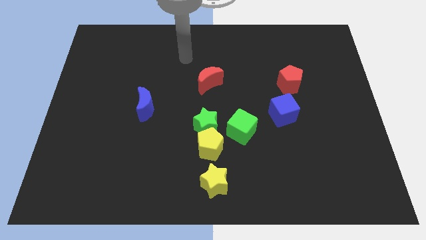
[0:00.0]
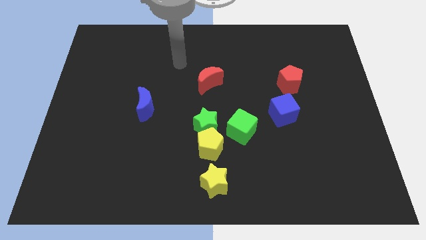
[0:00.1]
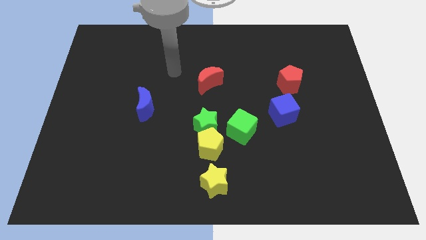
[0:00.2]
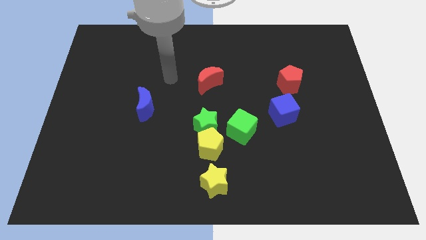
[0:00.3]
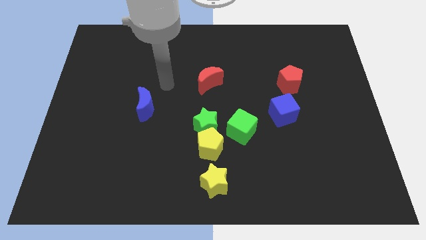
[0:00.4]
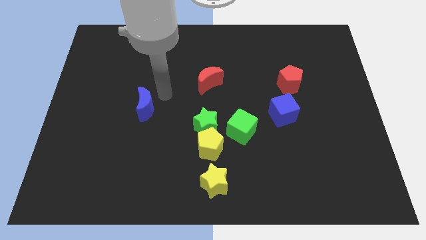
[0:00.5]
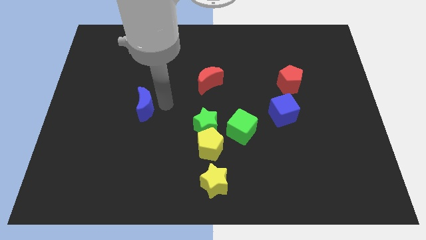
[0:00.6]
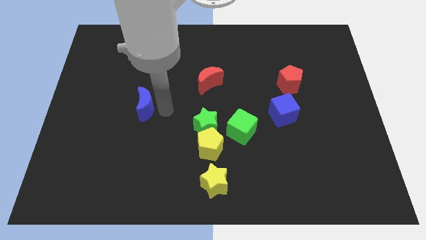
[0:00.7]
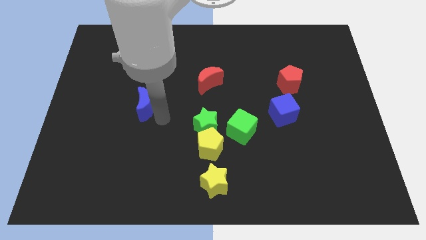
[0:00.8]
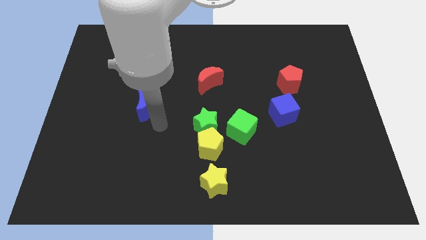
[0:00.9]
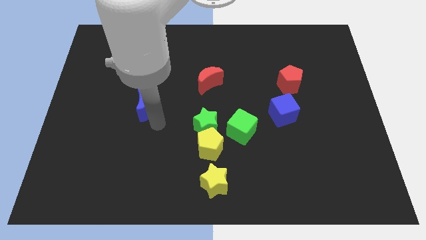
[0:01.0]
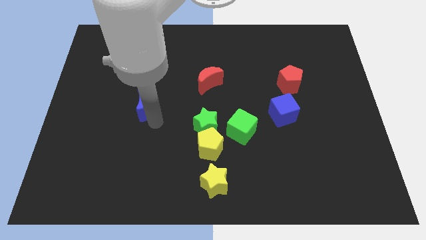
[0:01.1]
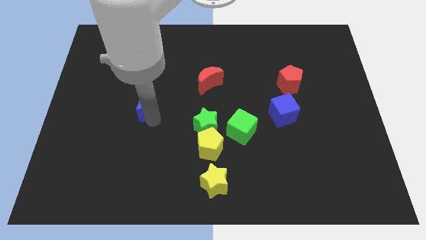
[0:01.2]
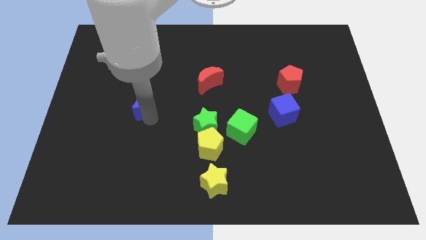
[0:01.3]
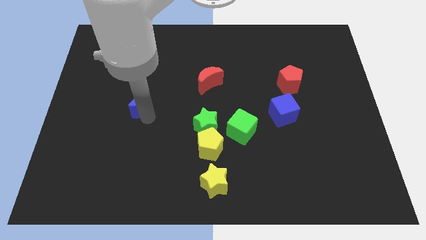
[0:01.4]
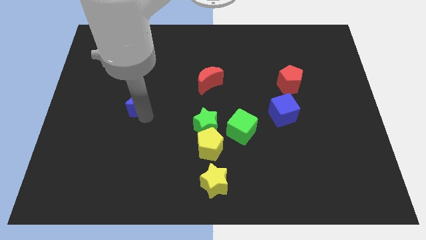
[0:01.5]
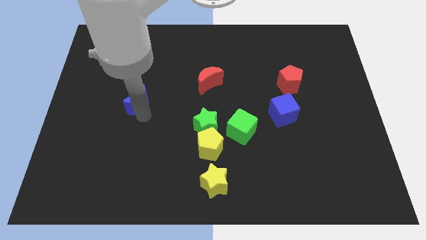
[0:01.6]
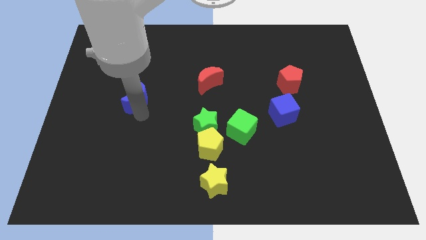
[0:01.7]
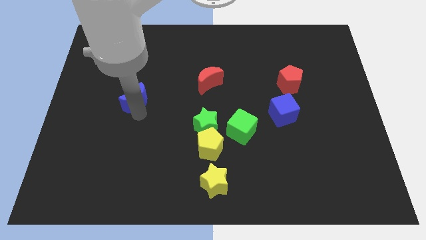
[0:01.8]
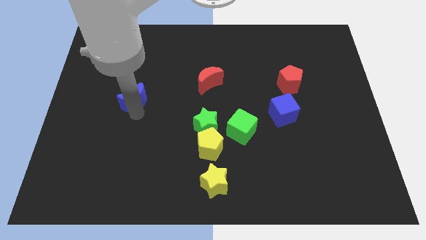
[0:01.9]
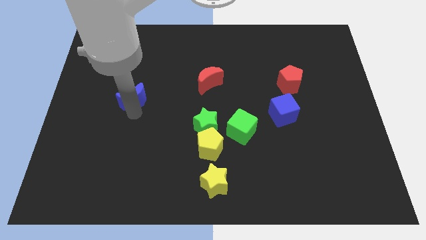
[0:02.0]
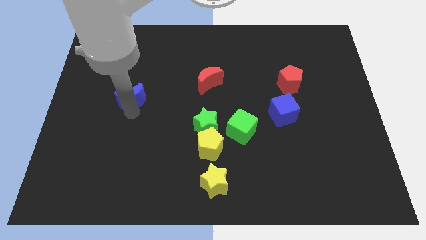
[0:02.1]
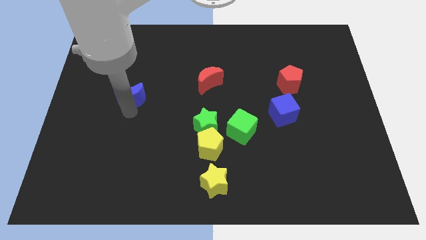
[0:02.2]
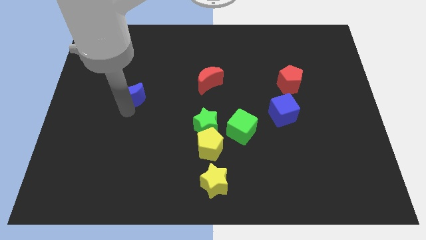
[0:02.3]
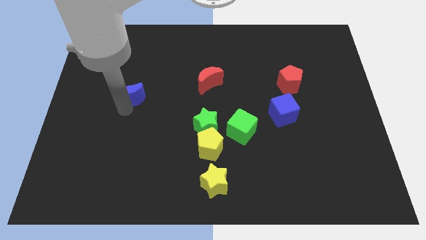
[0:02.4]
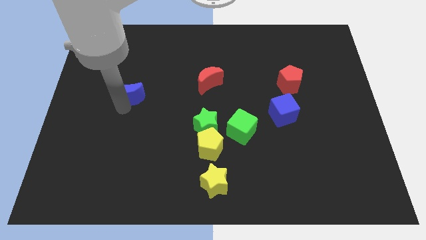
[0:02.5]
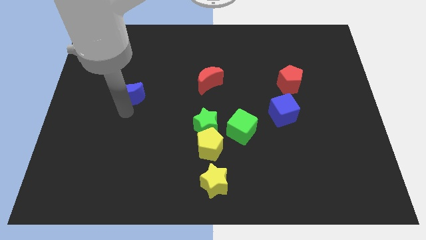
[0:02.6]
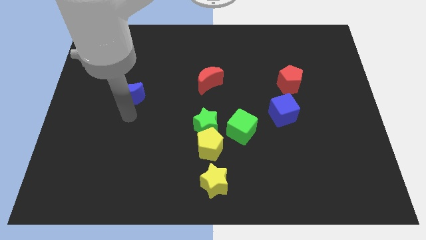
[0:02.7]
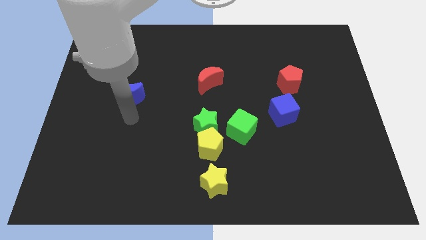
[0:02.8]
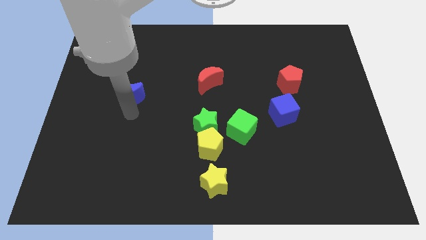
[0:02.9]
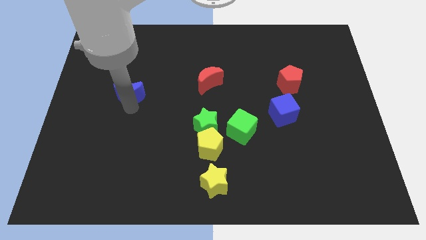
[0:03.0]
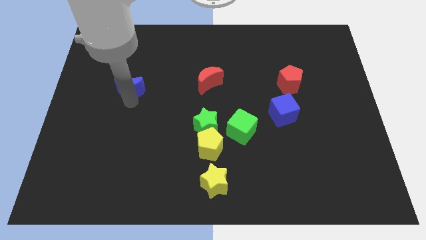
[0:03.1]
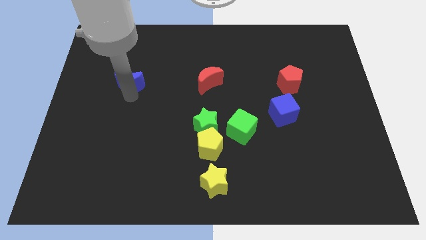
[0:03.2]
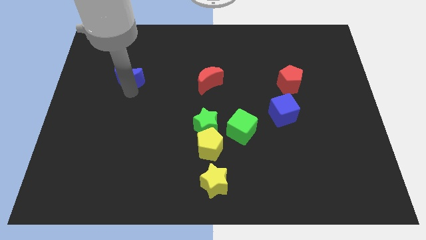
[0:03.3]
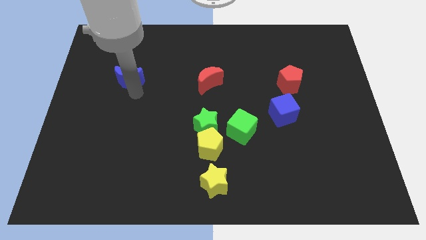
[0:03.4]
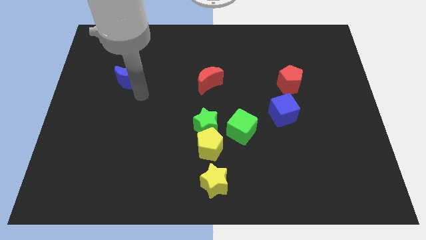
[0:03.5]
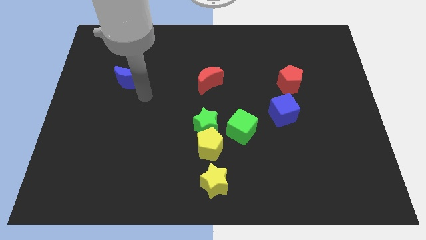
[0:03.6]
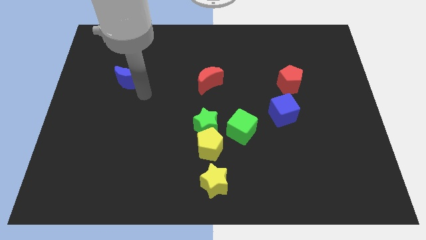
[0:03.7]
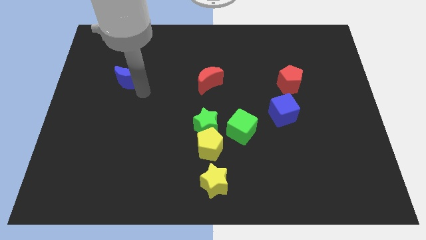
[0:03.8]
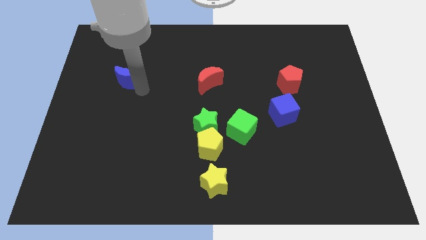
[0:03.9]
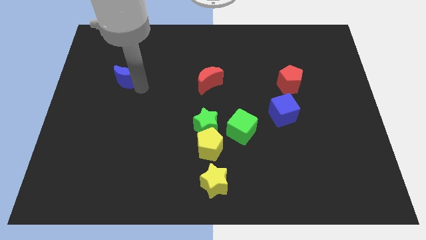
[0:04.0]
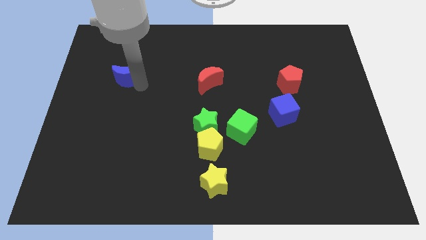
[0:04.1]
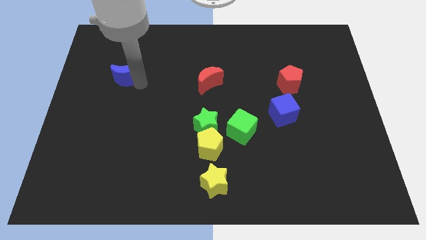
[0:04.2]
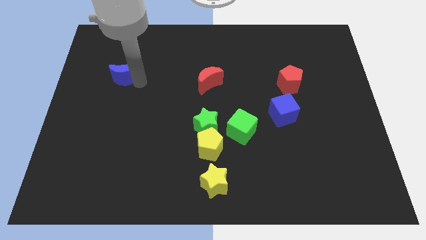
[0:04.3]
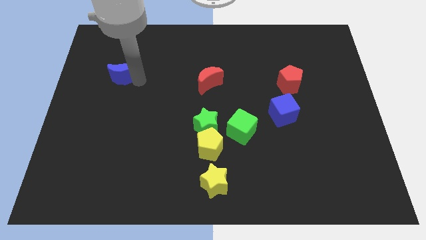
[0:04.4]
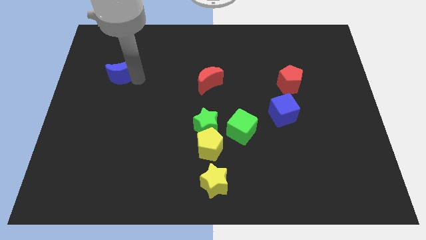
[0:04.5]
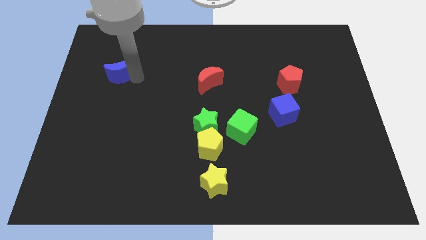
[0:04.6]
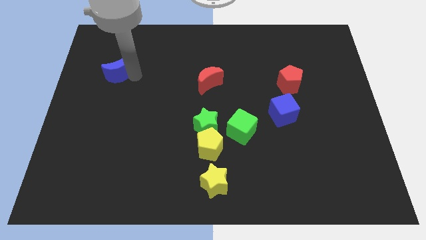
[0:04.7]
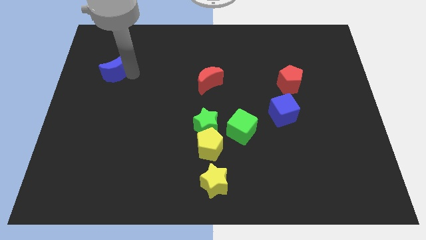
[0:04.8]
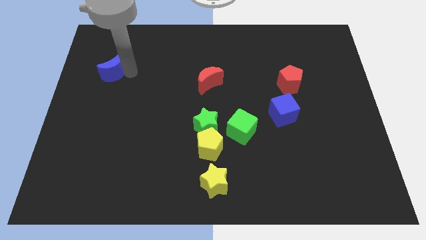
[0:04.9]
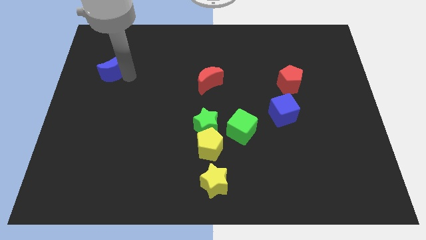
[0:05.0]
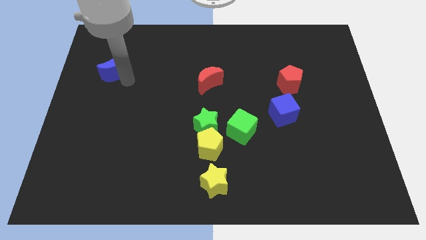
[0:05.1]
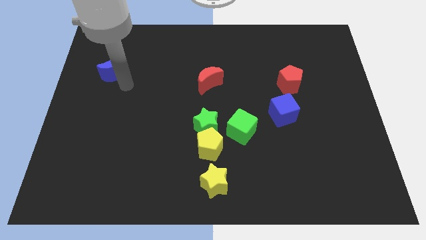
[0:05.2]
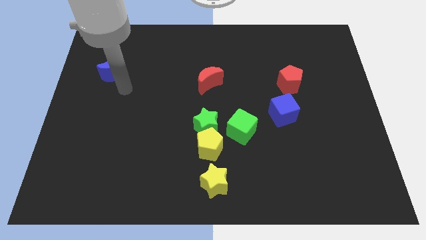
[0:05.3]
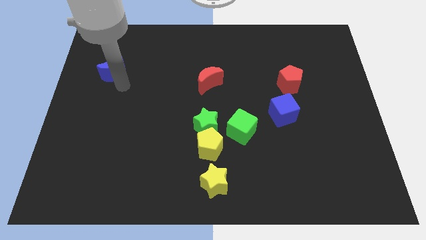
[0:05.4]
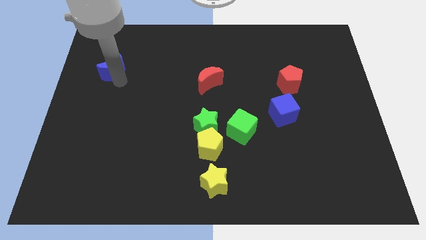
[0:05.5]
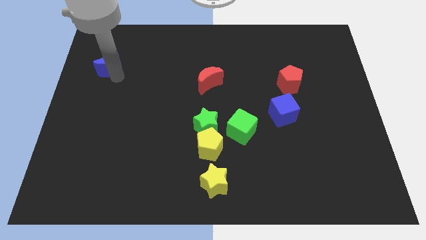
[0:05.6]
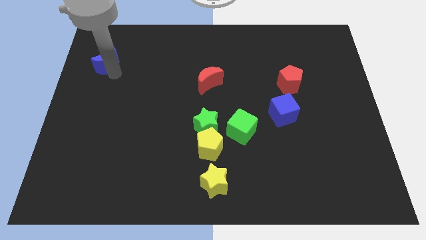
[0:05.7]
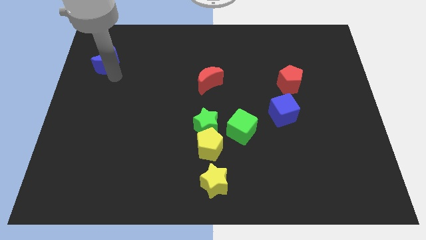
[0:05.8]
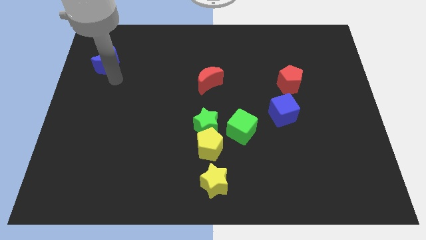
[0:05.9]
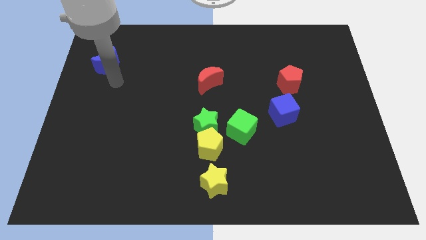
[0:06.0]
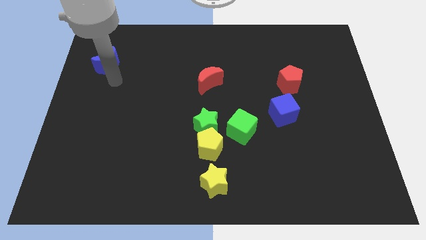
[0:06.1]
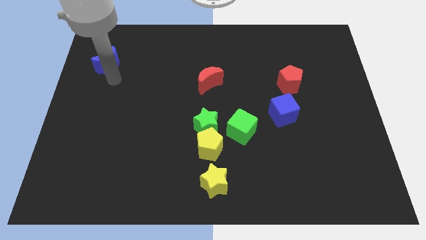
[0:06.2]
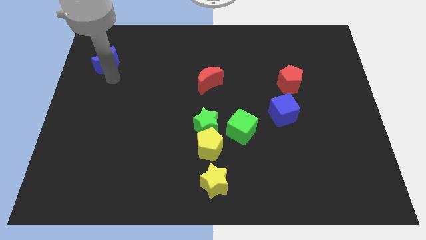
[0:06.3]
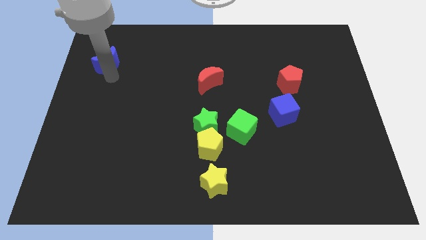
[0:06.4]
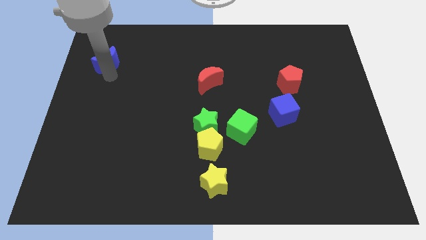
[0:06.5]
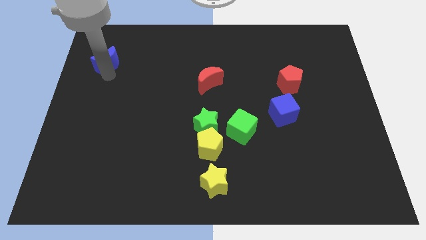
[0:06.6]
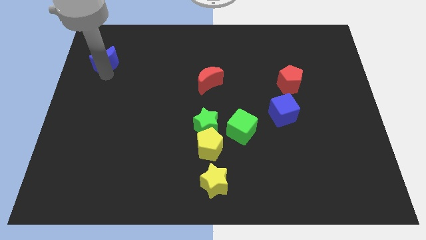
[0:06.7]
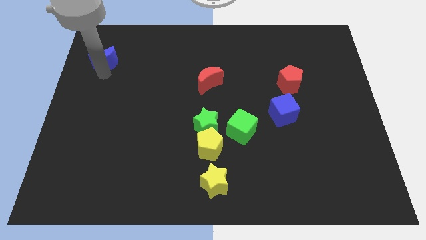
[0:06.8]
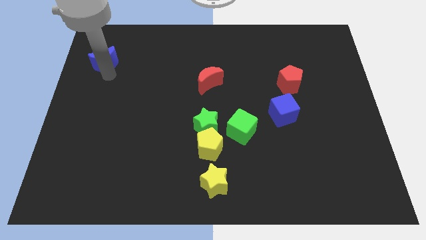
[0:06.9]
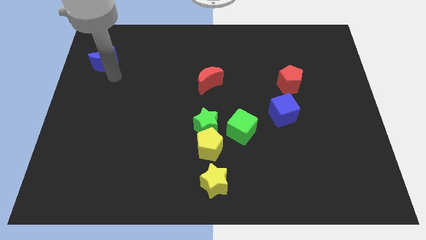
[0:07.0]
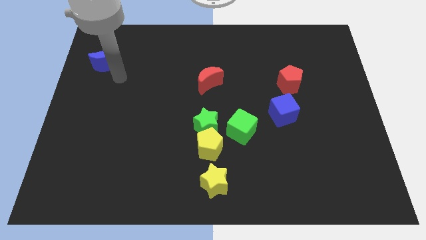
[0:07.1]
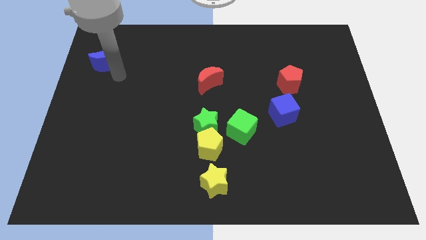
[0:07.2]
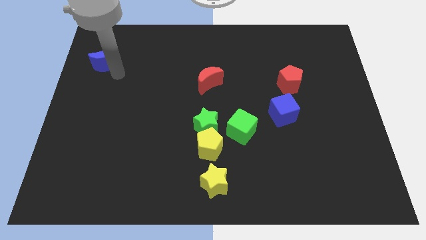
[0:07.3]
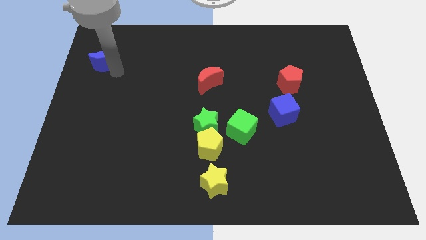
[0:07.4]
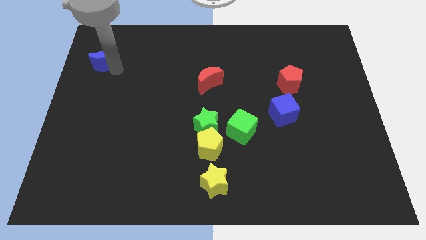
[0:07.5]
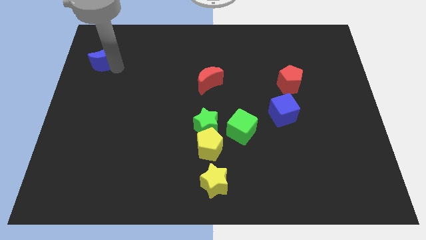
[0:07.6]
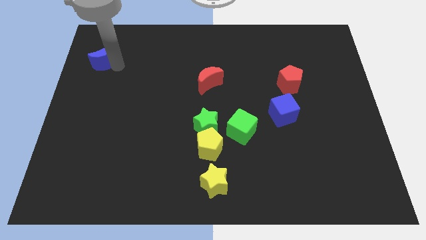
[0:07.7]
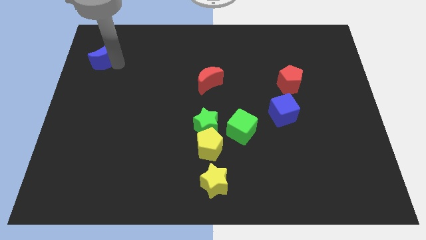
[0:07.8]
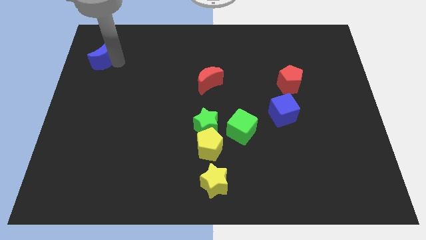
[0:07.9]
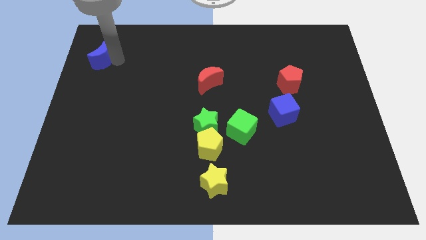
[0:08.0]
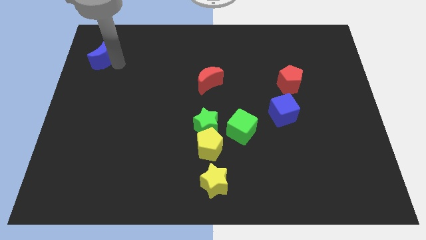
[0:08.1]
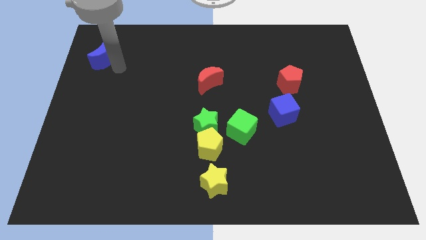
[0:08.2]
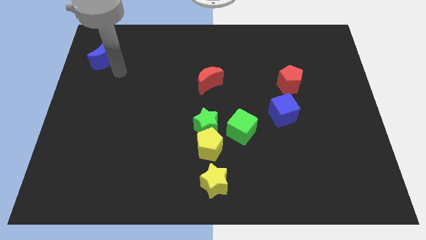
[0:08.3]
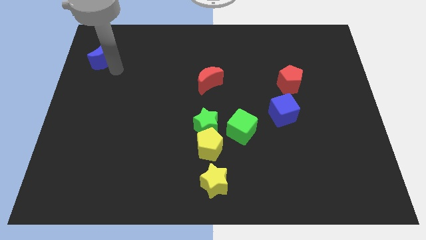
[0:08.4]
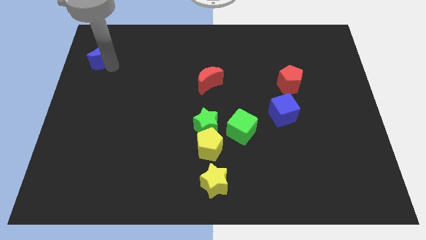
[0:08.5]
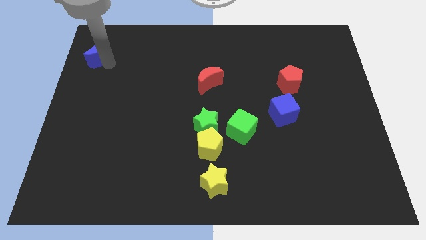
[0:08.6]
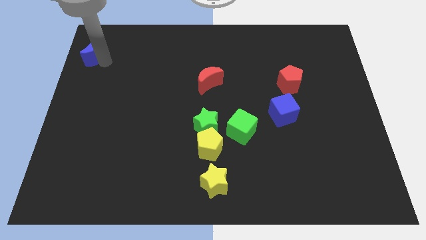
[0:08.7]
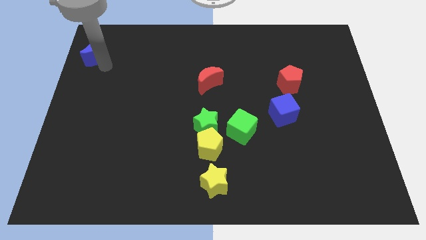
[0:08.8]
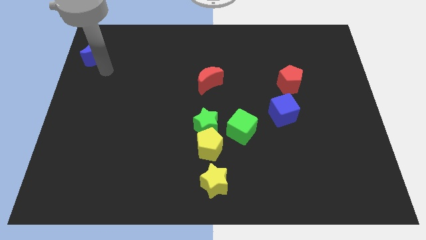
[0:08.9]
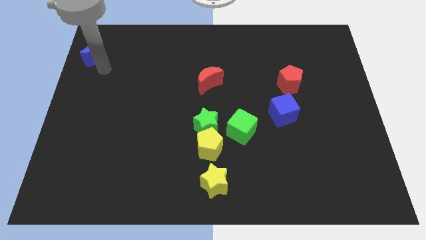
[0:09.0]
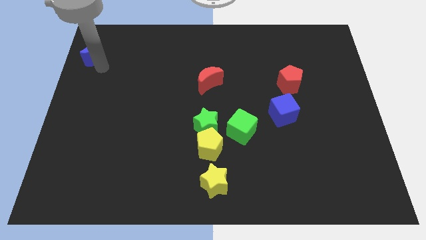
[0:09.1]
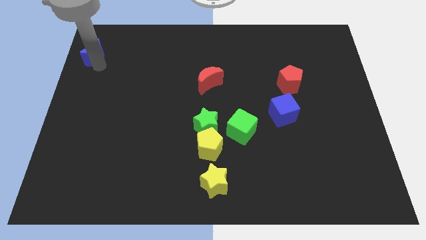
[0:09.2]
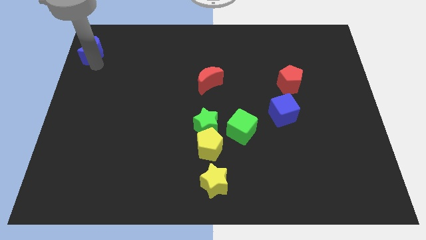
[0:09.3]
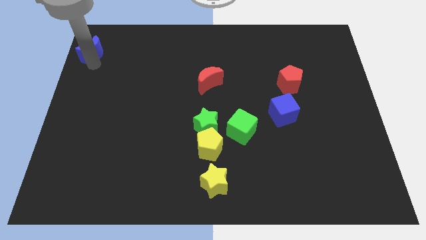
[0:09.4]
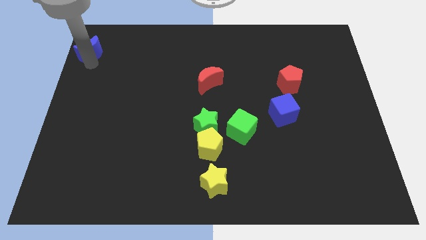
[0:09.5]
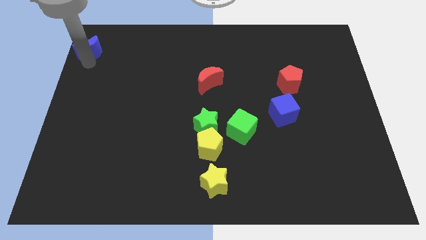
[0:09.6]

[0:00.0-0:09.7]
put the blue moon to the top left
